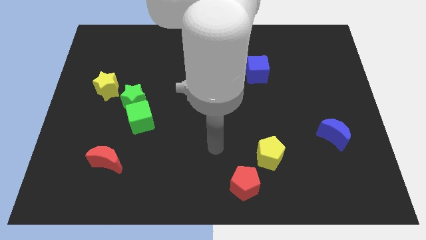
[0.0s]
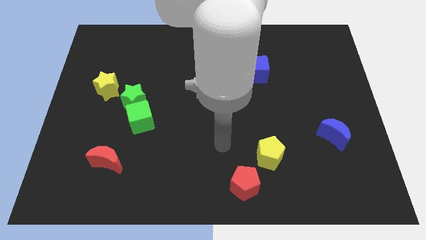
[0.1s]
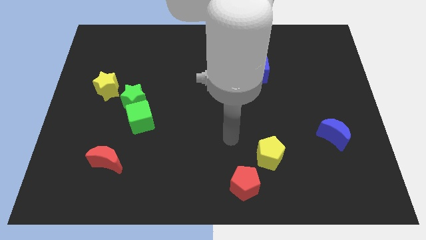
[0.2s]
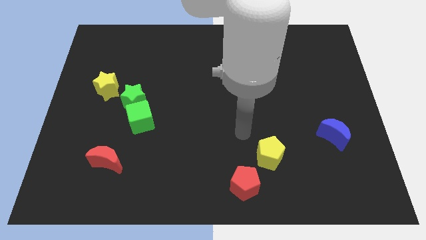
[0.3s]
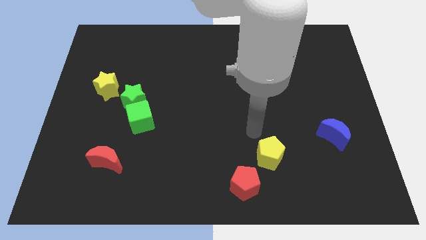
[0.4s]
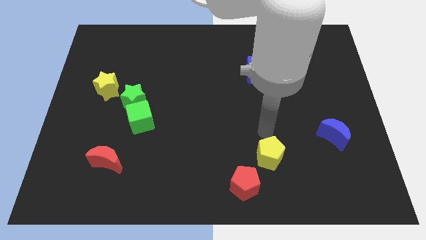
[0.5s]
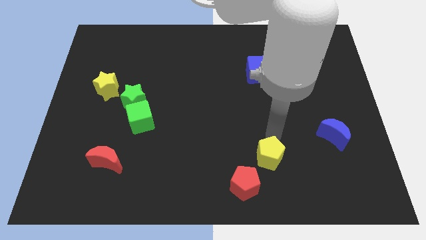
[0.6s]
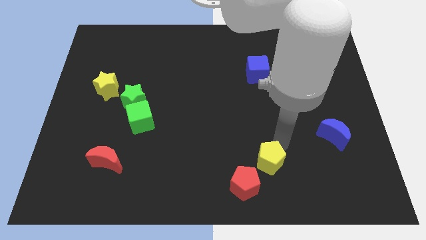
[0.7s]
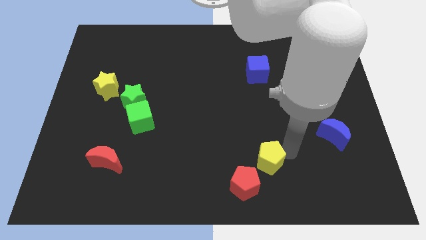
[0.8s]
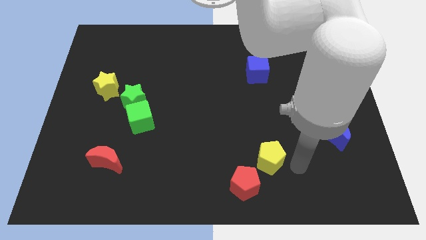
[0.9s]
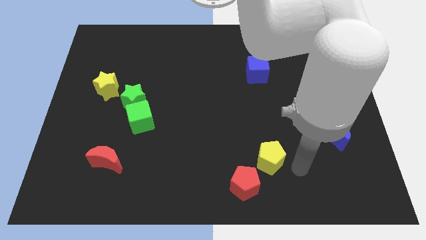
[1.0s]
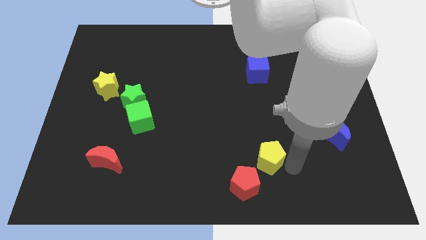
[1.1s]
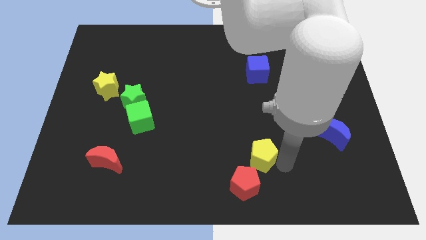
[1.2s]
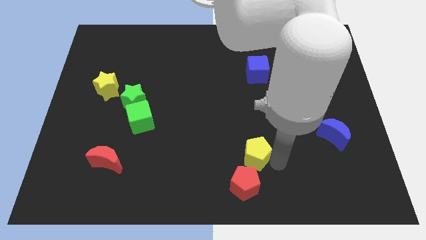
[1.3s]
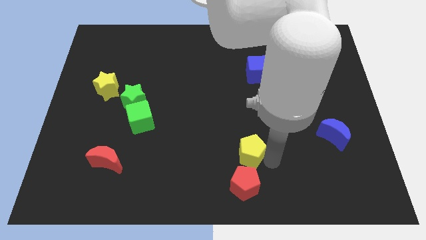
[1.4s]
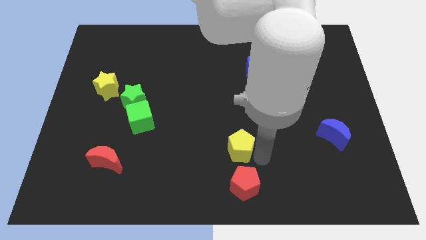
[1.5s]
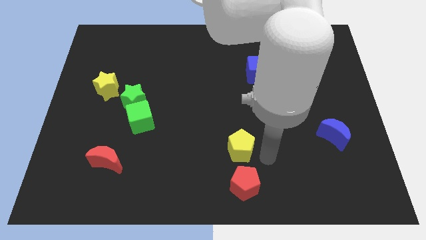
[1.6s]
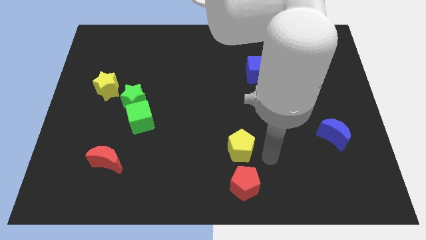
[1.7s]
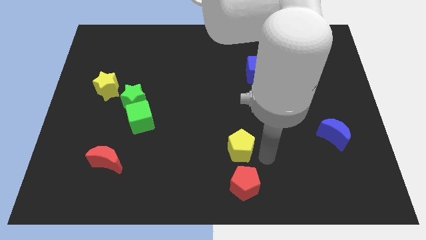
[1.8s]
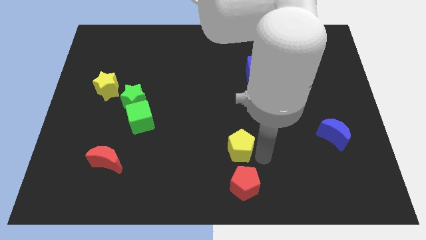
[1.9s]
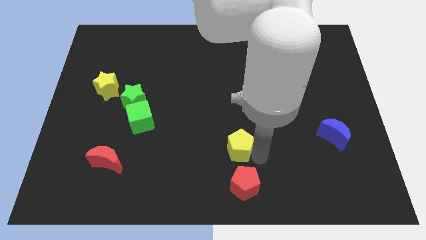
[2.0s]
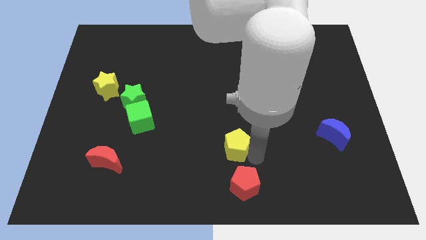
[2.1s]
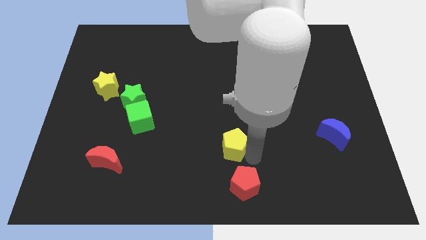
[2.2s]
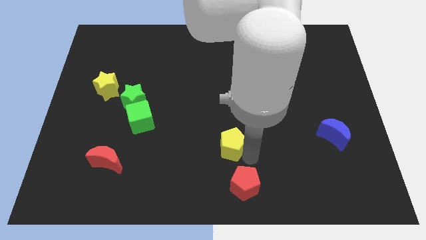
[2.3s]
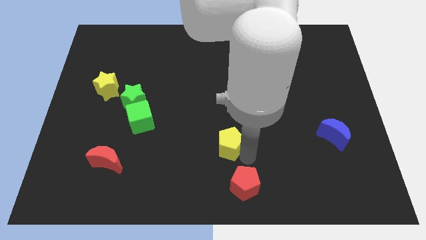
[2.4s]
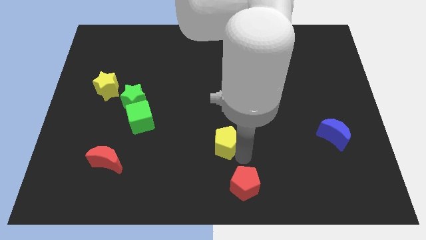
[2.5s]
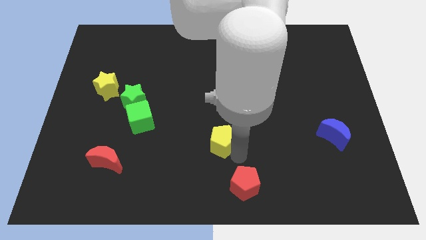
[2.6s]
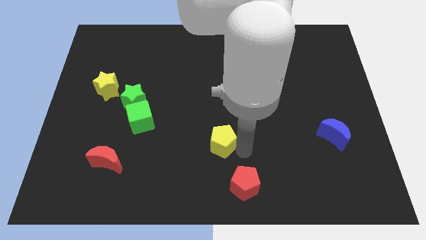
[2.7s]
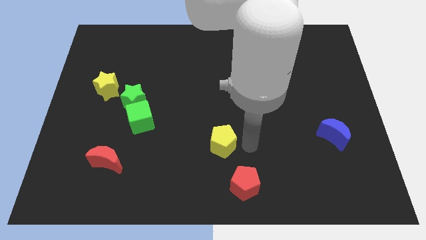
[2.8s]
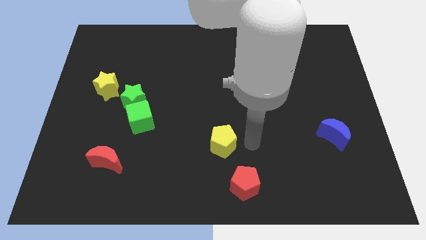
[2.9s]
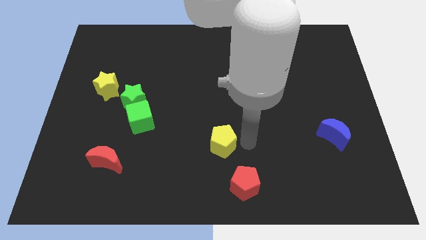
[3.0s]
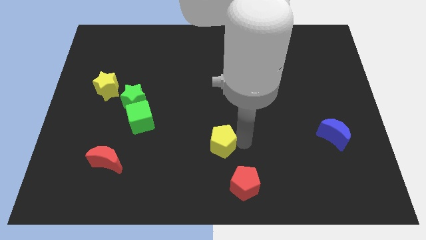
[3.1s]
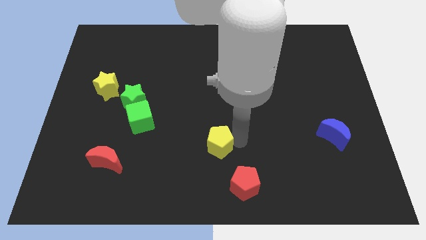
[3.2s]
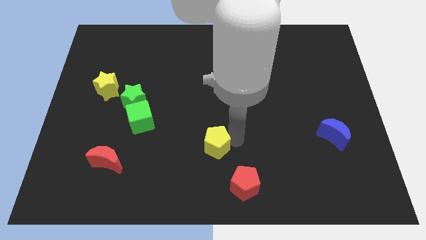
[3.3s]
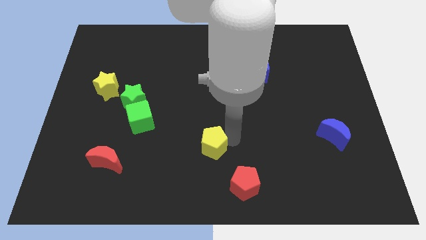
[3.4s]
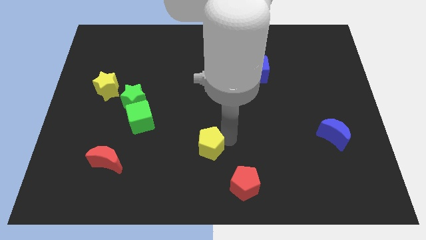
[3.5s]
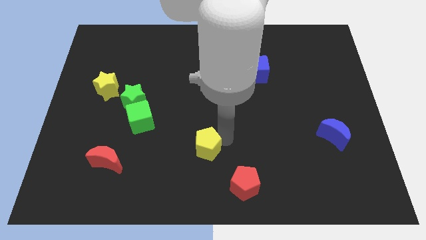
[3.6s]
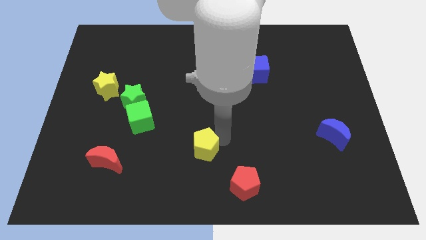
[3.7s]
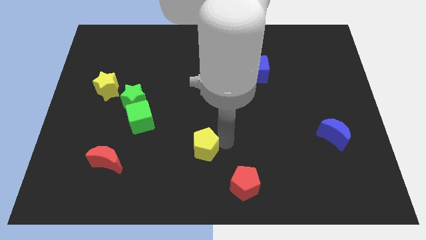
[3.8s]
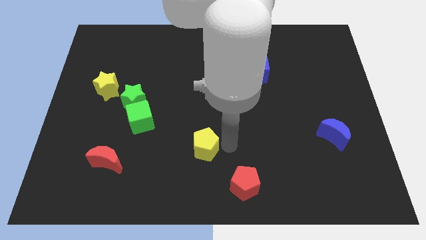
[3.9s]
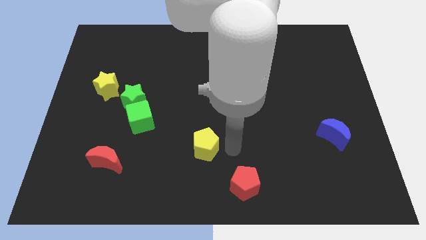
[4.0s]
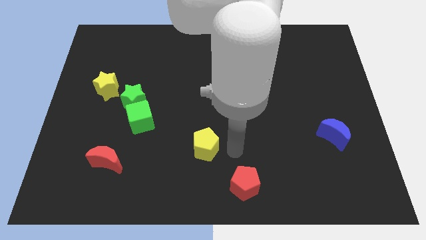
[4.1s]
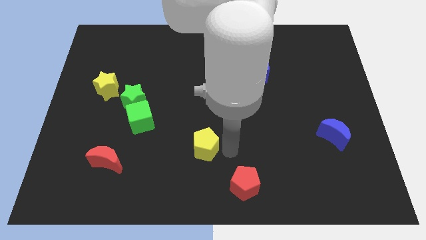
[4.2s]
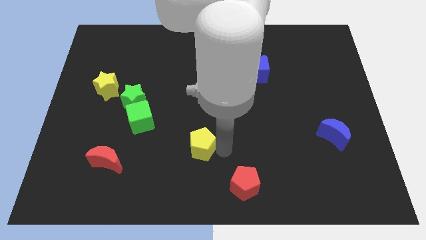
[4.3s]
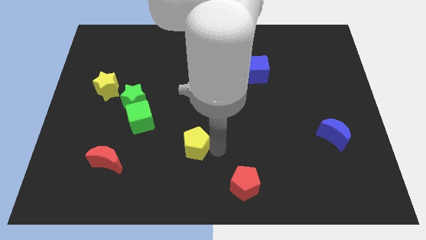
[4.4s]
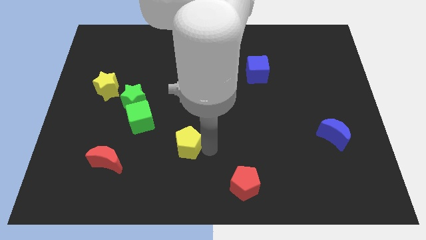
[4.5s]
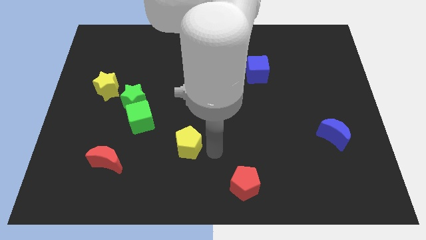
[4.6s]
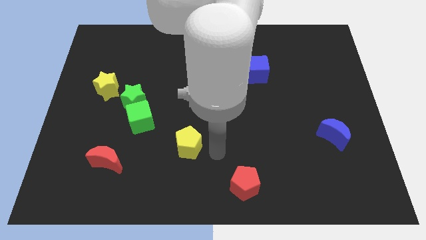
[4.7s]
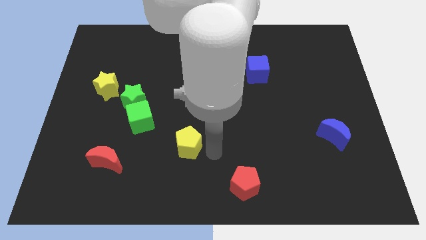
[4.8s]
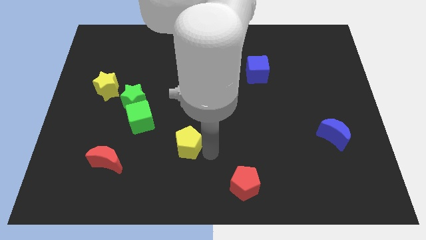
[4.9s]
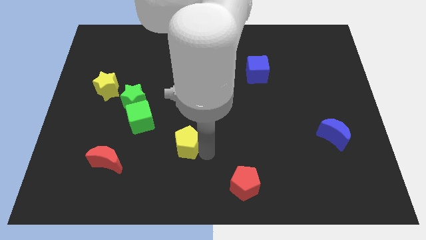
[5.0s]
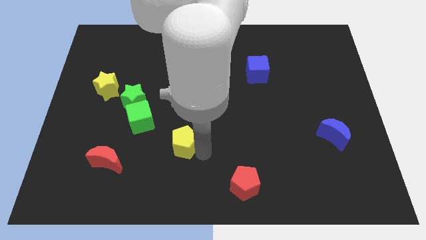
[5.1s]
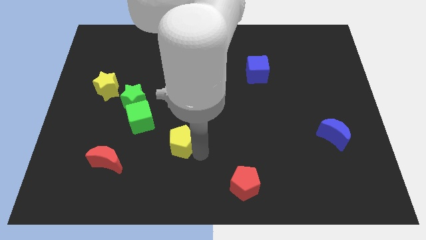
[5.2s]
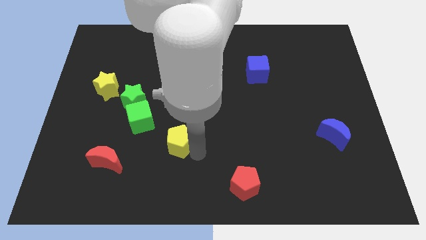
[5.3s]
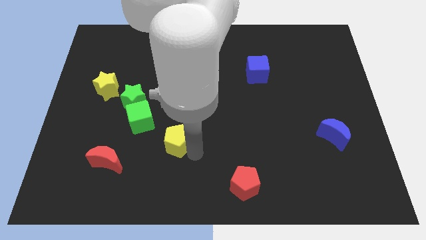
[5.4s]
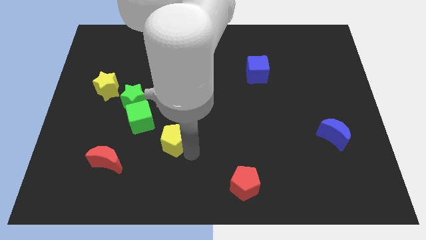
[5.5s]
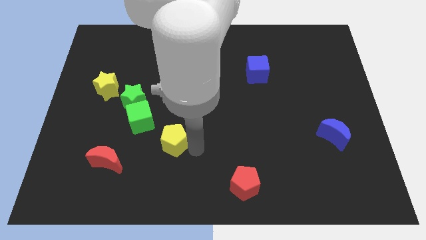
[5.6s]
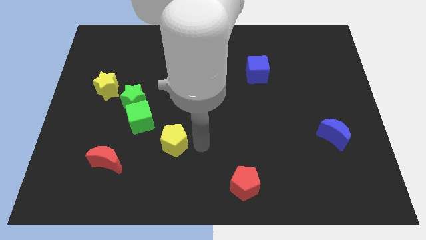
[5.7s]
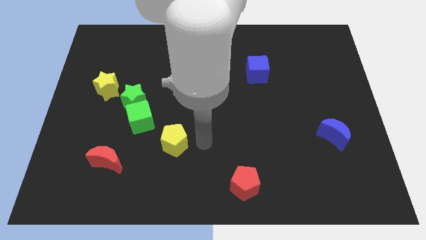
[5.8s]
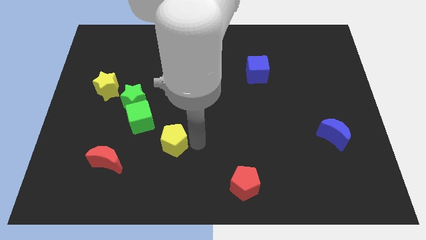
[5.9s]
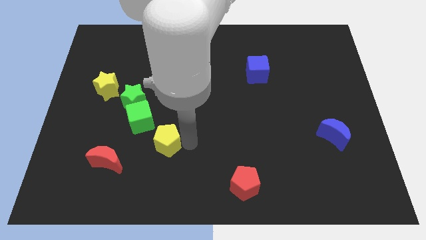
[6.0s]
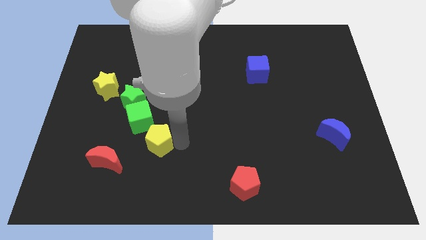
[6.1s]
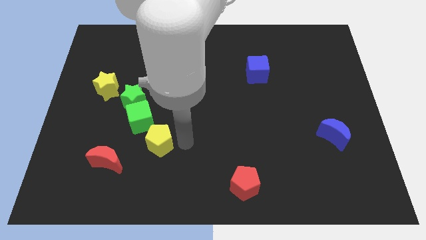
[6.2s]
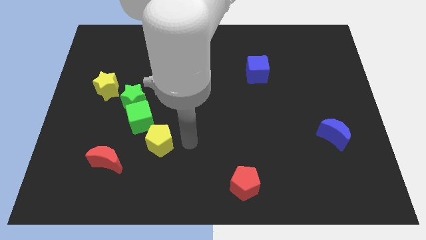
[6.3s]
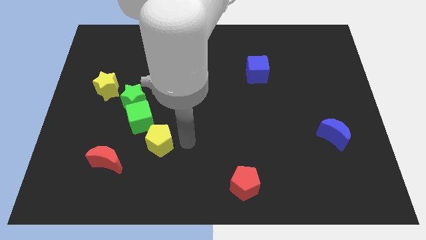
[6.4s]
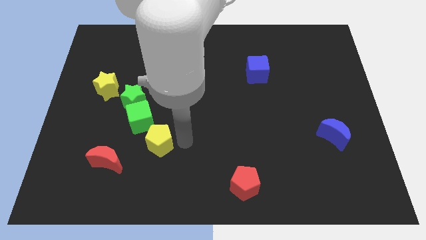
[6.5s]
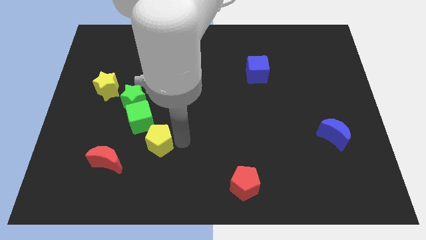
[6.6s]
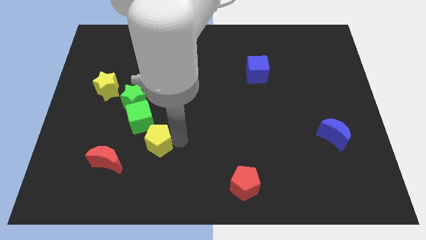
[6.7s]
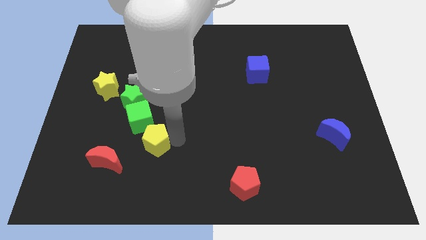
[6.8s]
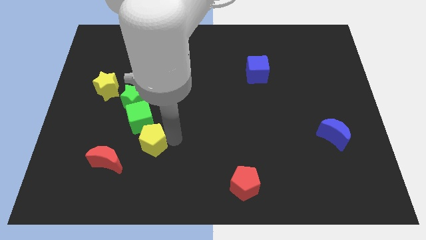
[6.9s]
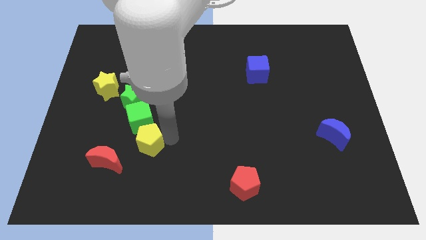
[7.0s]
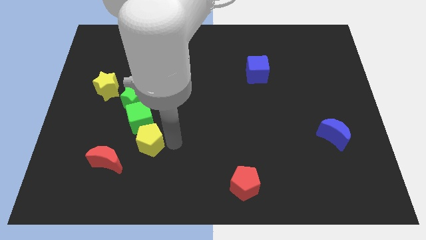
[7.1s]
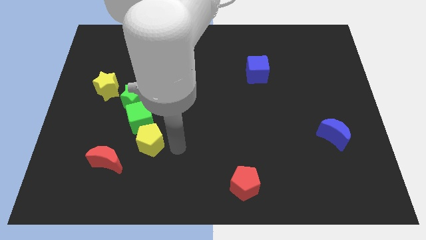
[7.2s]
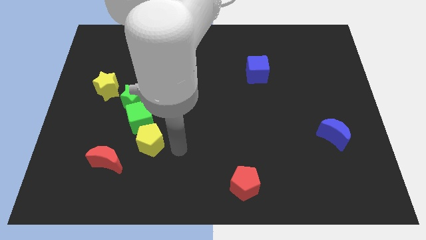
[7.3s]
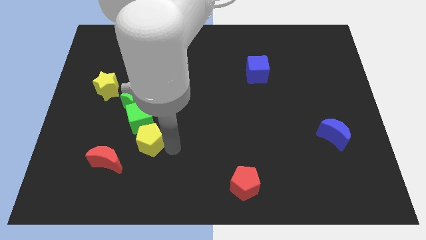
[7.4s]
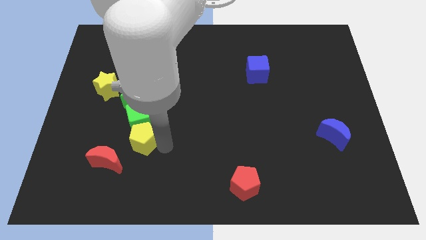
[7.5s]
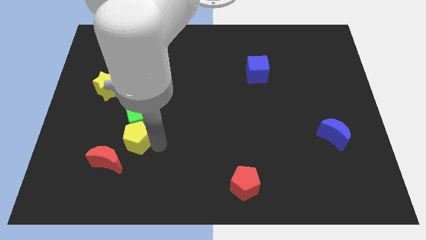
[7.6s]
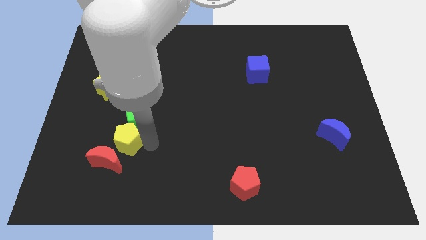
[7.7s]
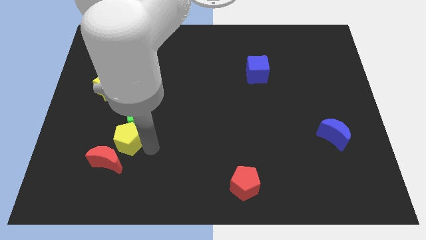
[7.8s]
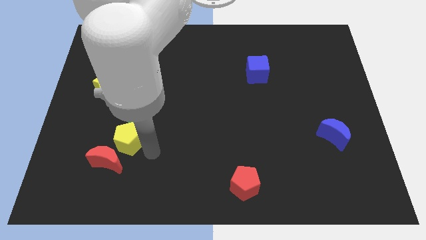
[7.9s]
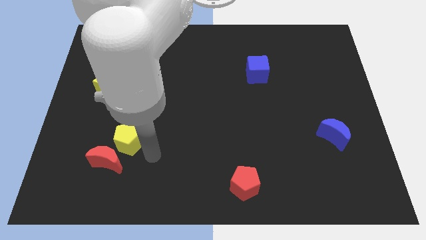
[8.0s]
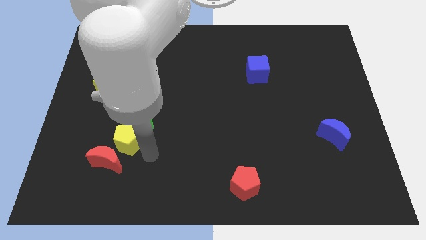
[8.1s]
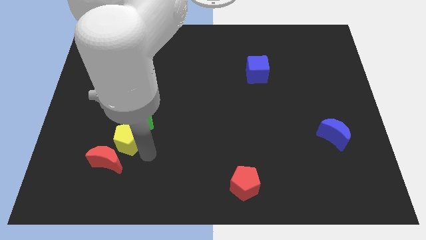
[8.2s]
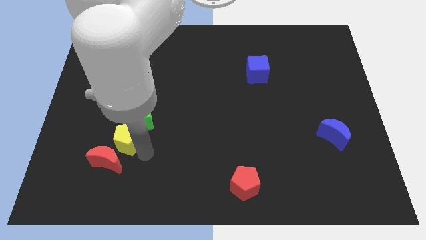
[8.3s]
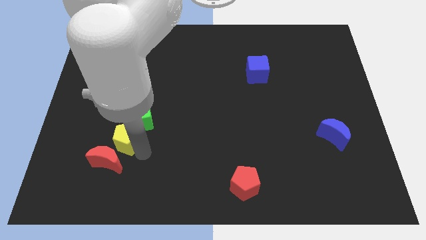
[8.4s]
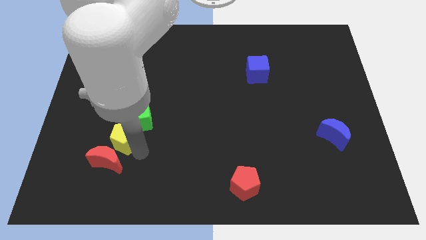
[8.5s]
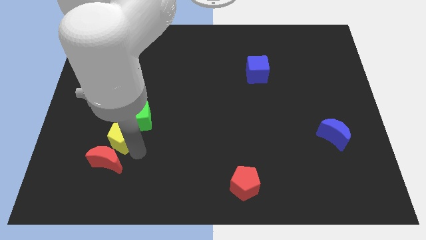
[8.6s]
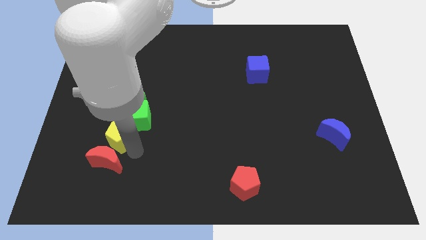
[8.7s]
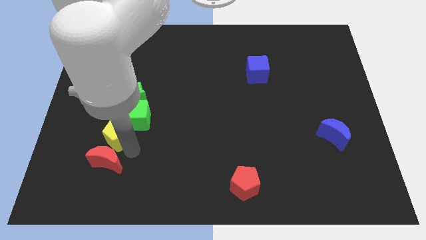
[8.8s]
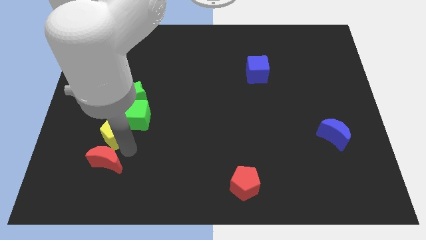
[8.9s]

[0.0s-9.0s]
put the yellow pentagon to the bottom of the yellow star
